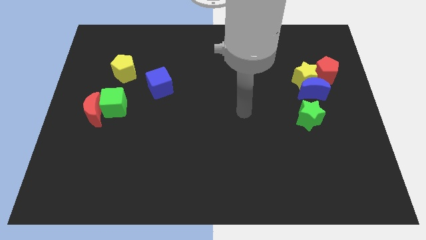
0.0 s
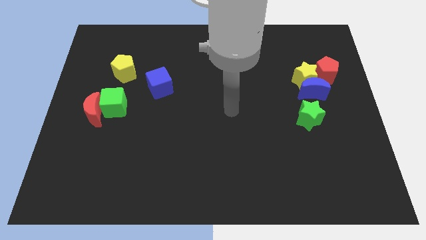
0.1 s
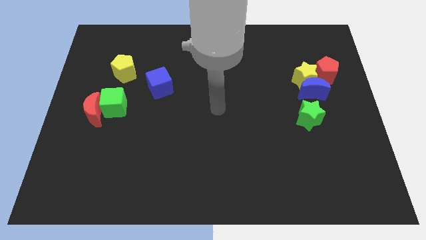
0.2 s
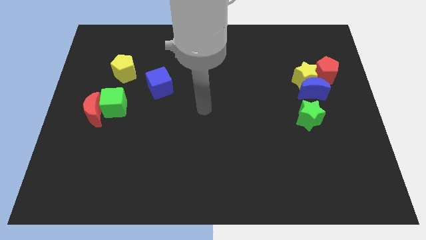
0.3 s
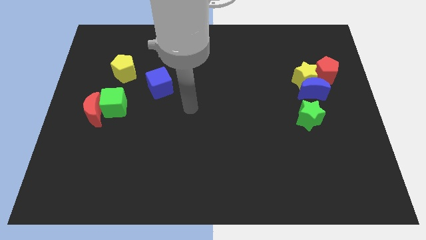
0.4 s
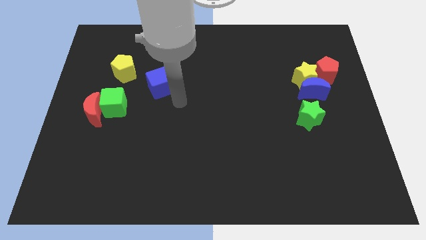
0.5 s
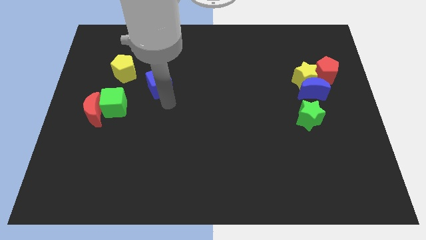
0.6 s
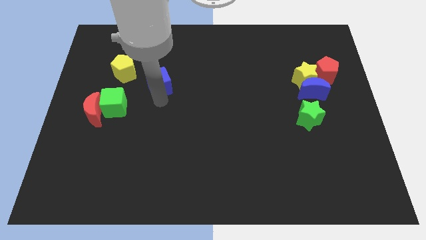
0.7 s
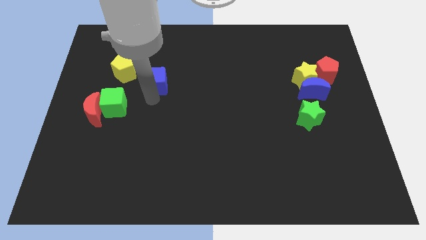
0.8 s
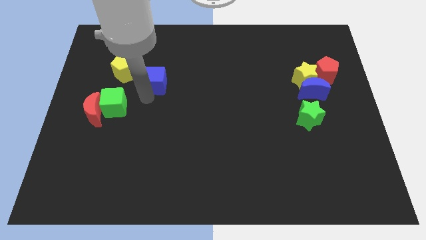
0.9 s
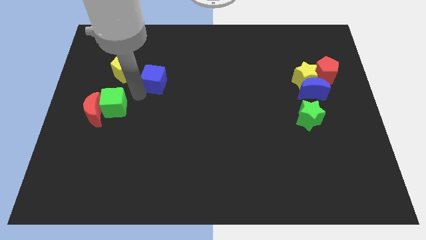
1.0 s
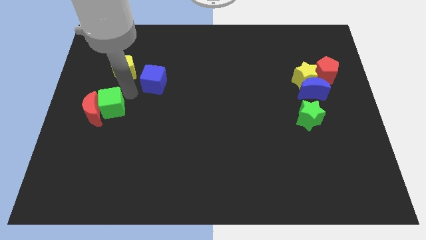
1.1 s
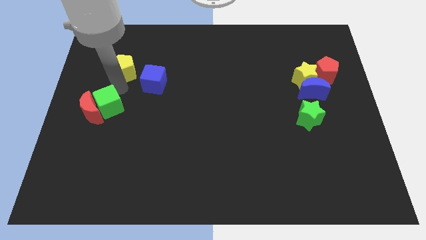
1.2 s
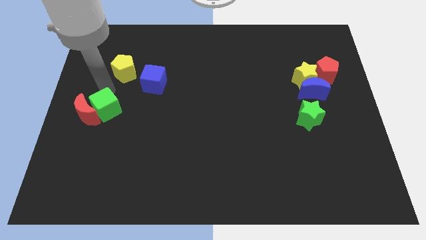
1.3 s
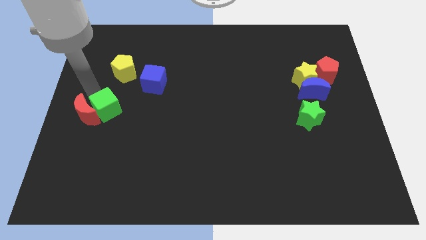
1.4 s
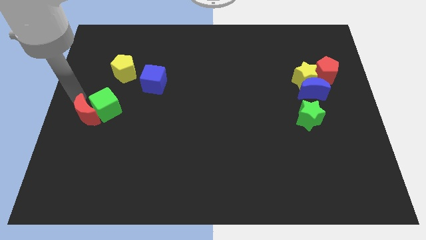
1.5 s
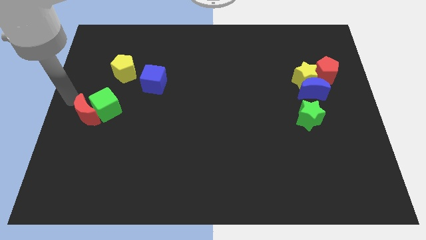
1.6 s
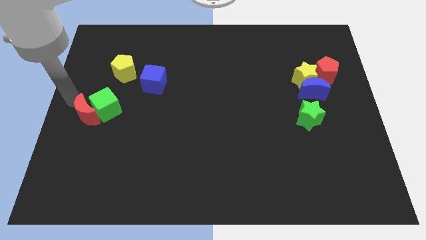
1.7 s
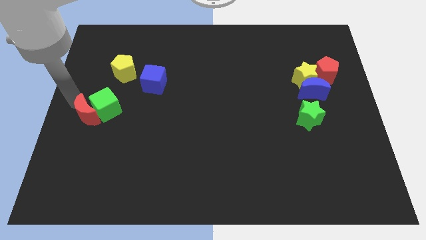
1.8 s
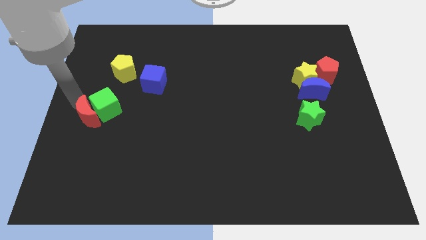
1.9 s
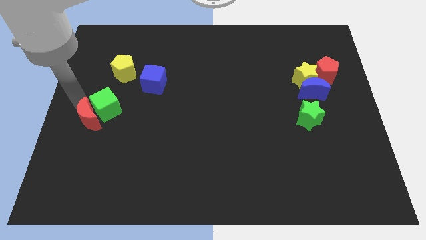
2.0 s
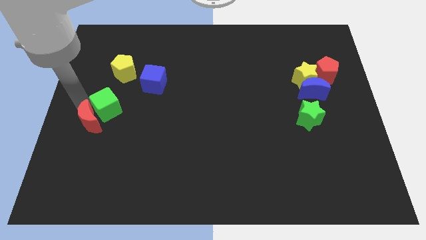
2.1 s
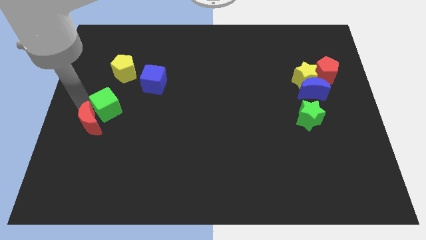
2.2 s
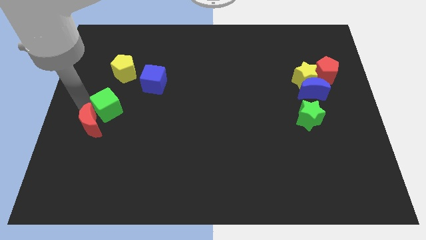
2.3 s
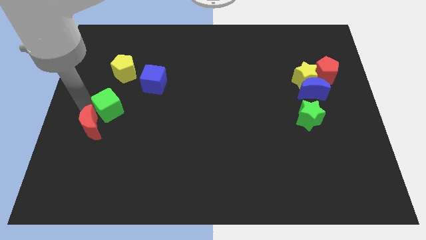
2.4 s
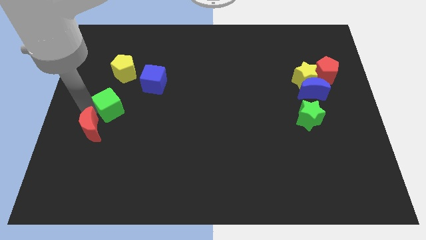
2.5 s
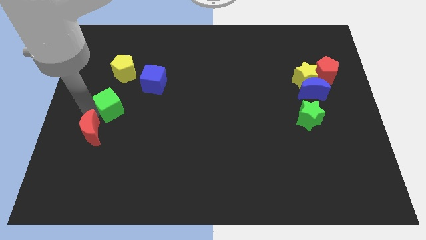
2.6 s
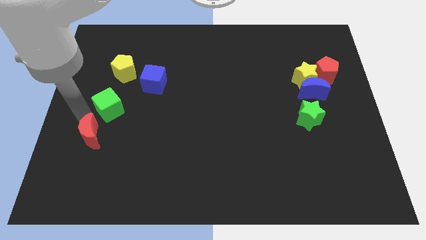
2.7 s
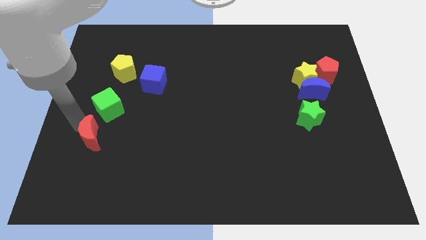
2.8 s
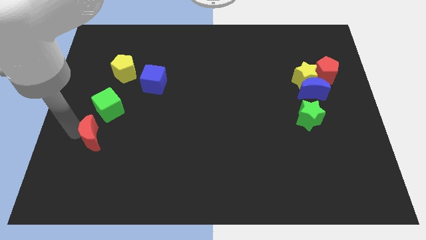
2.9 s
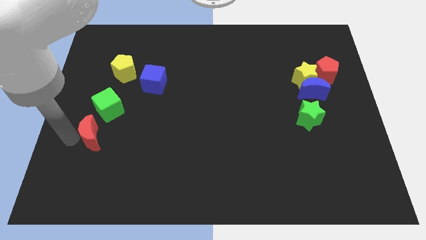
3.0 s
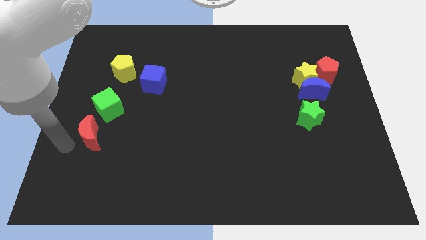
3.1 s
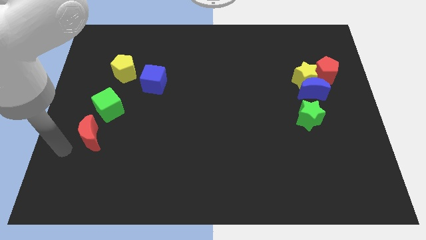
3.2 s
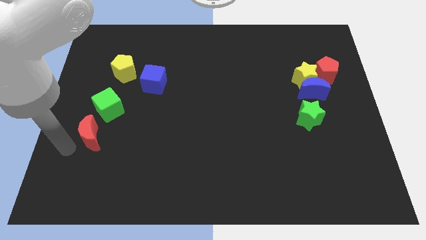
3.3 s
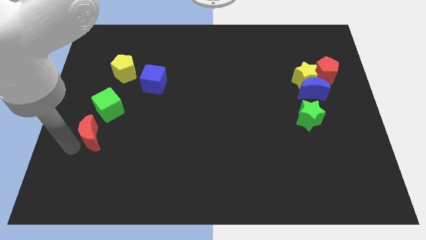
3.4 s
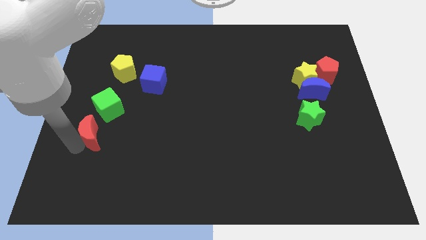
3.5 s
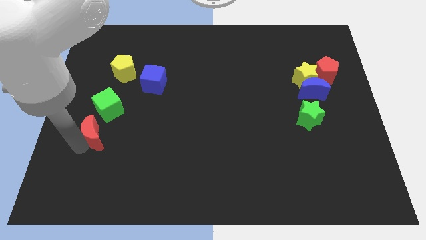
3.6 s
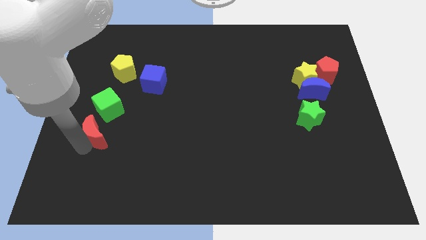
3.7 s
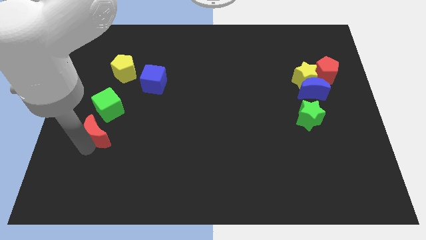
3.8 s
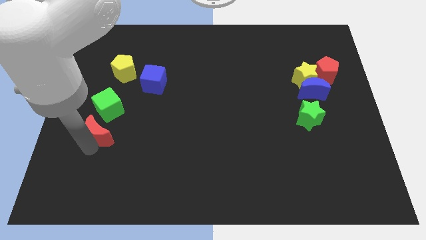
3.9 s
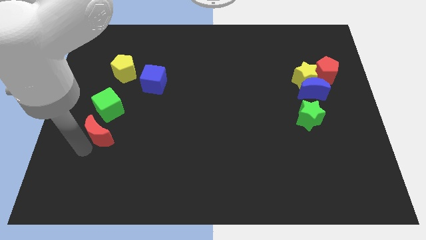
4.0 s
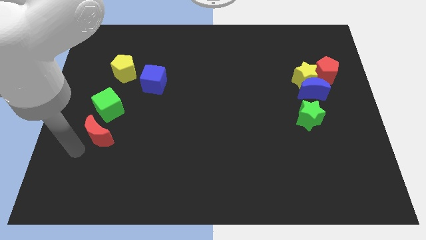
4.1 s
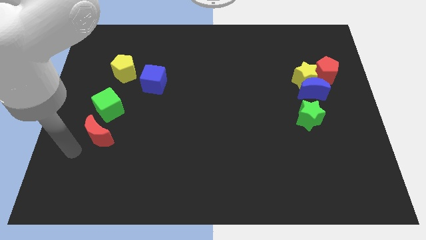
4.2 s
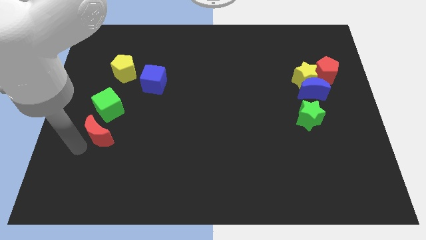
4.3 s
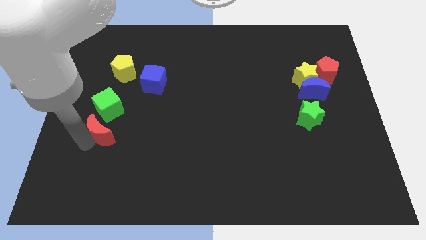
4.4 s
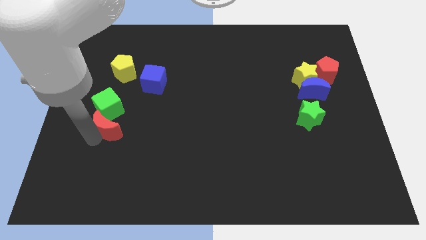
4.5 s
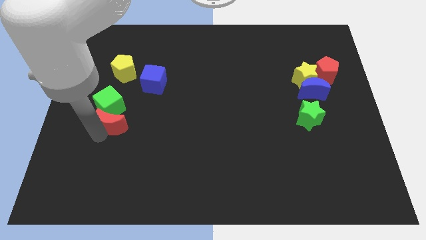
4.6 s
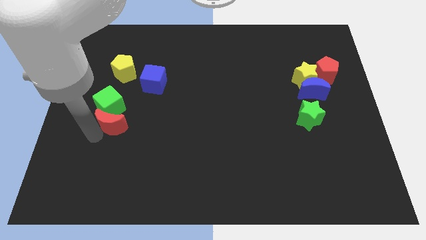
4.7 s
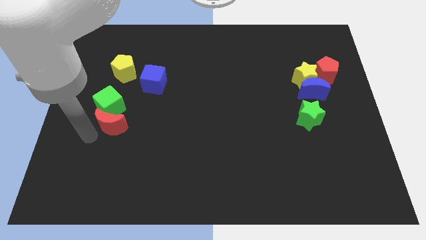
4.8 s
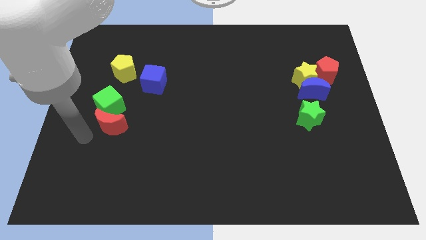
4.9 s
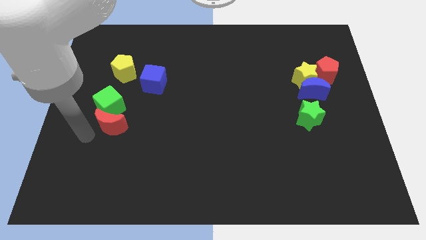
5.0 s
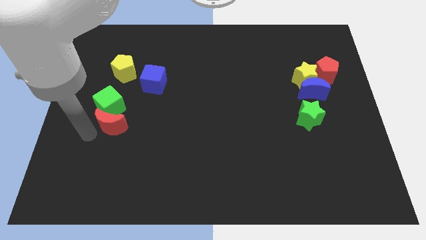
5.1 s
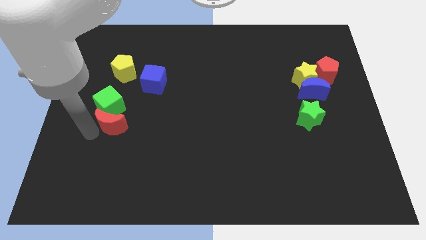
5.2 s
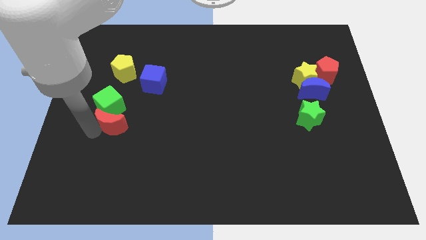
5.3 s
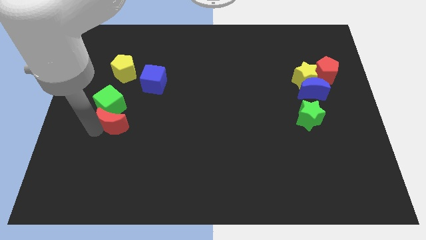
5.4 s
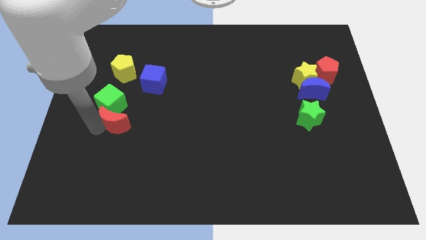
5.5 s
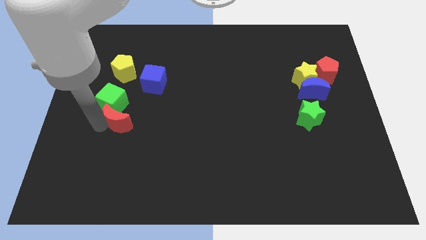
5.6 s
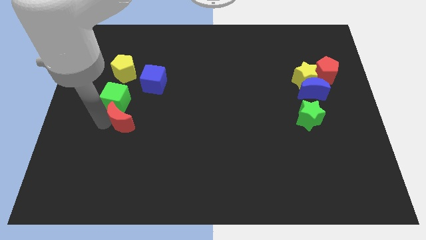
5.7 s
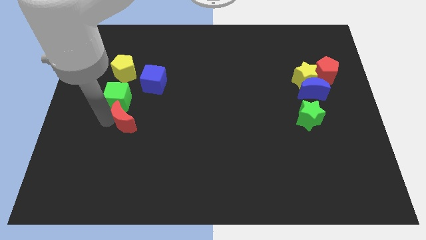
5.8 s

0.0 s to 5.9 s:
slightly slide the red moon right

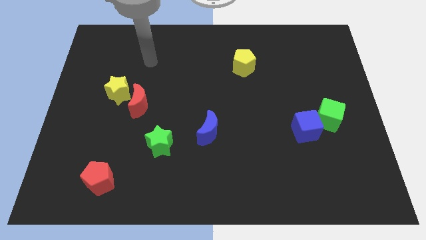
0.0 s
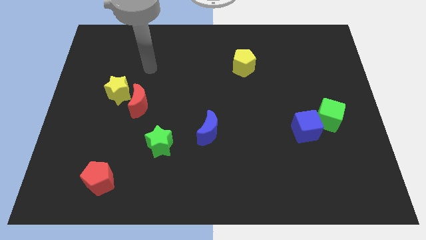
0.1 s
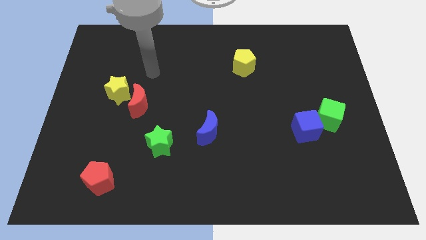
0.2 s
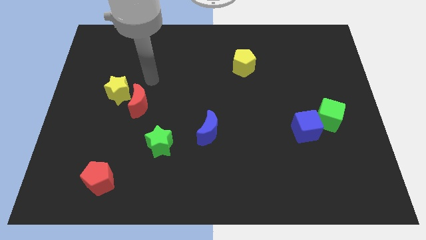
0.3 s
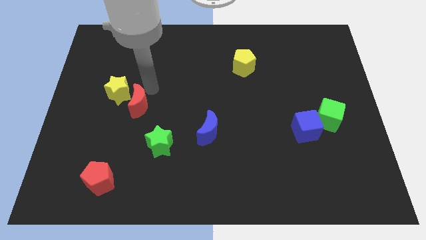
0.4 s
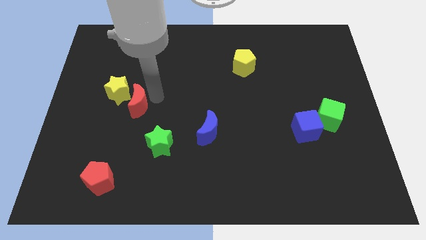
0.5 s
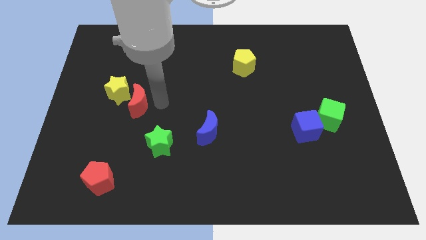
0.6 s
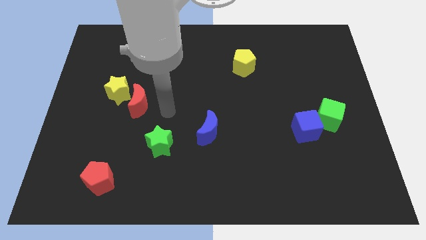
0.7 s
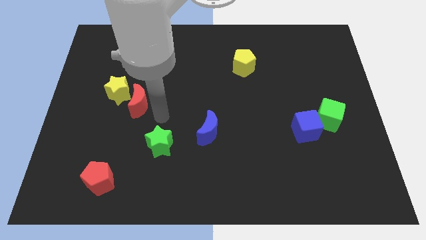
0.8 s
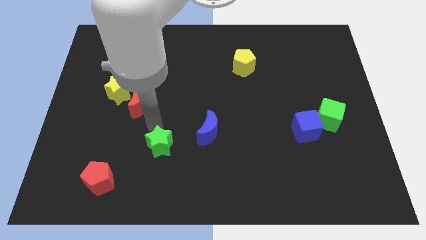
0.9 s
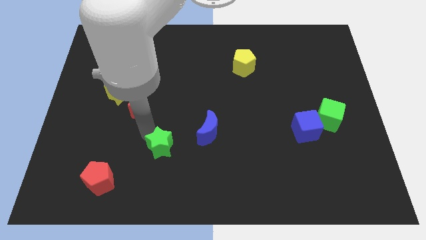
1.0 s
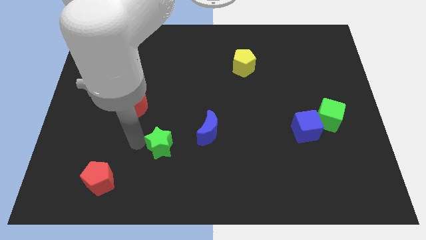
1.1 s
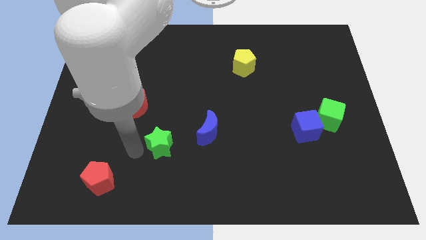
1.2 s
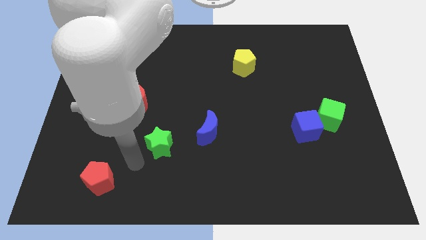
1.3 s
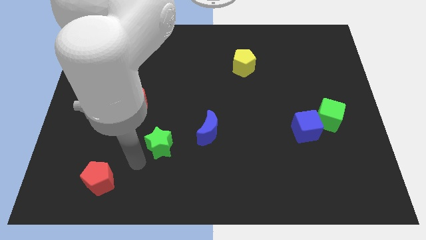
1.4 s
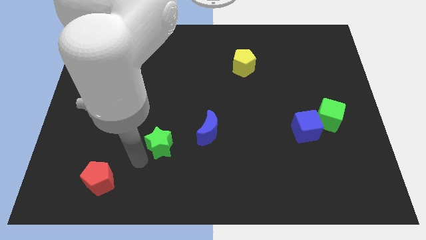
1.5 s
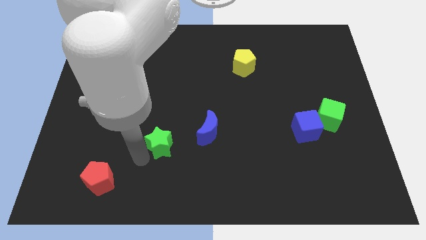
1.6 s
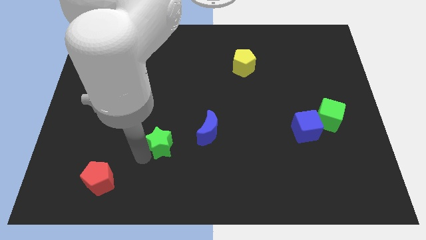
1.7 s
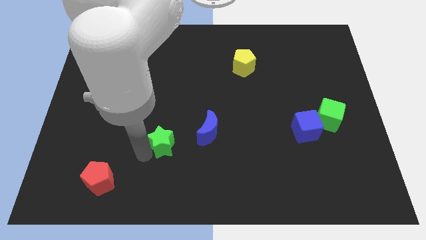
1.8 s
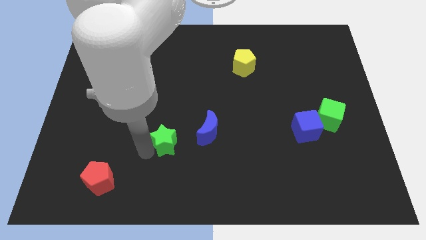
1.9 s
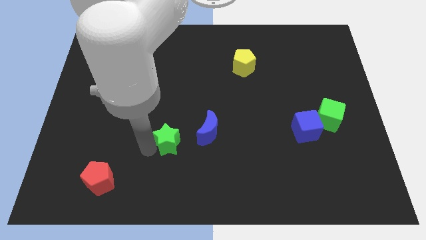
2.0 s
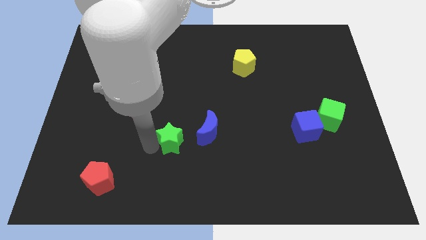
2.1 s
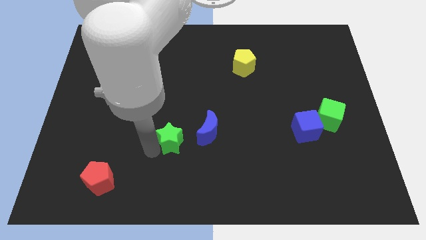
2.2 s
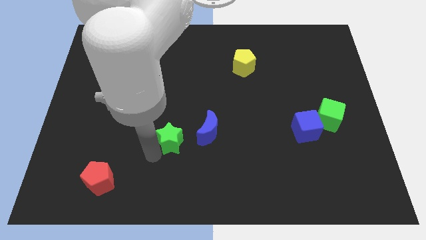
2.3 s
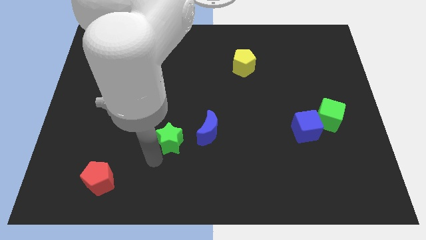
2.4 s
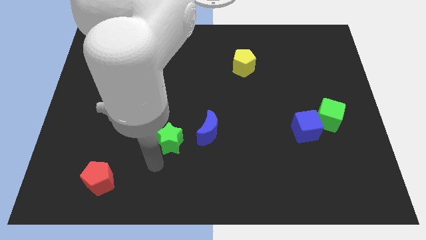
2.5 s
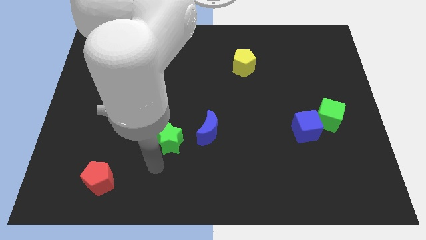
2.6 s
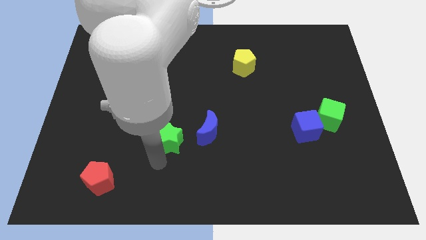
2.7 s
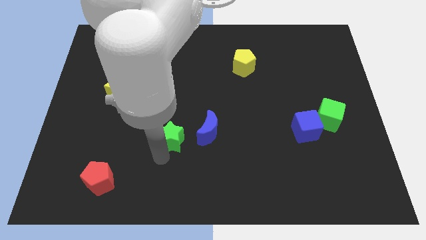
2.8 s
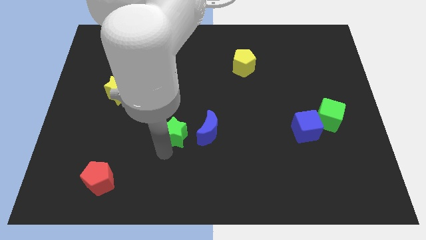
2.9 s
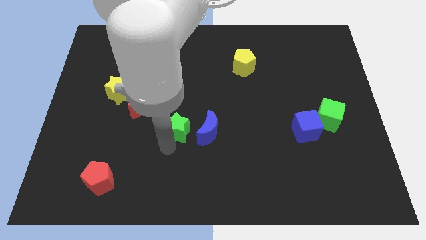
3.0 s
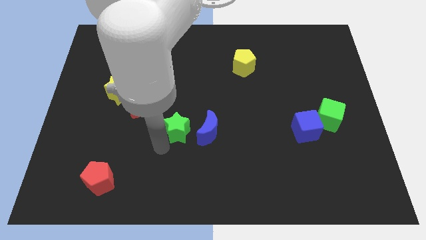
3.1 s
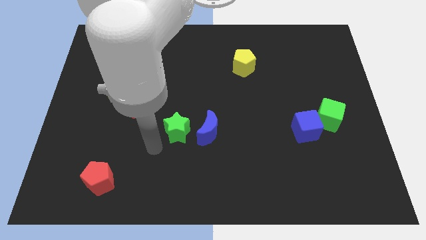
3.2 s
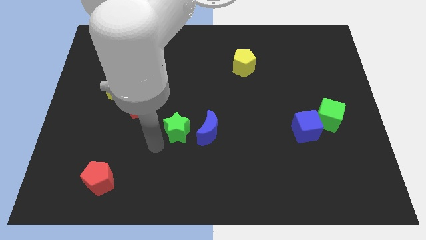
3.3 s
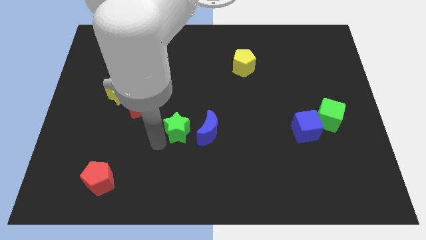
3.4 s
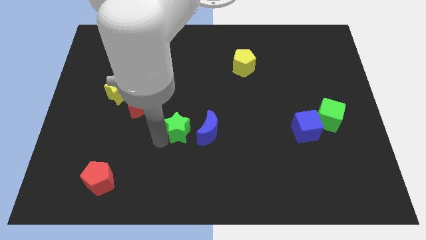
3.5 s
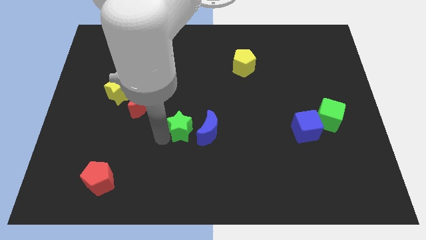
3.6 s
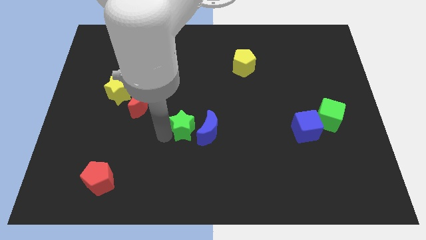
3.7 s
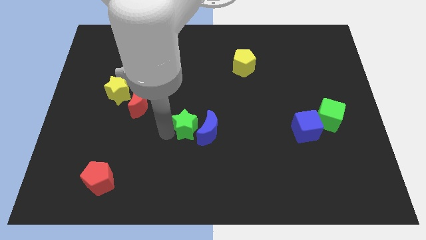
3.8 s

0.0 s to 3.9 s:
push the green star upwards and then right a bit
